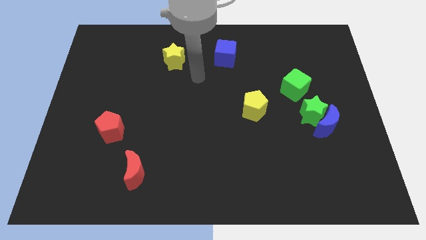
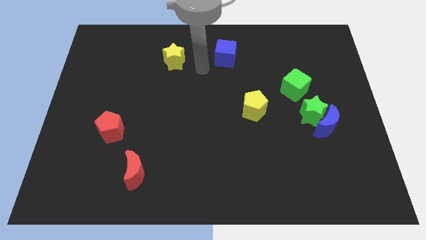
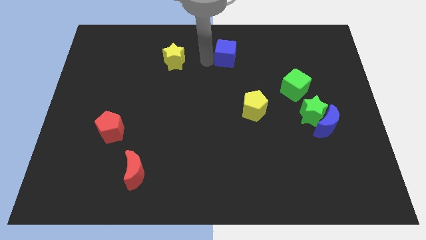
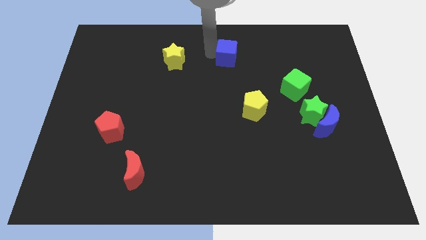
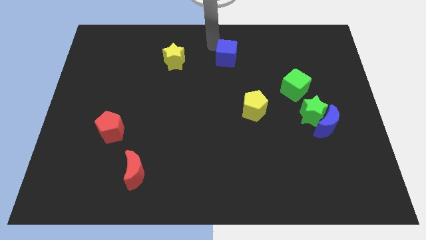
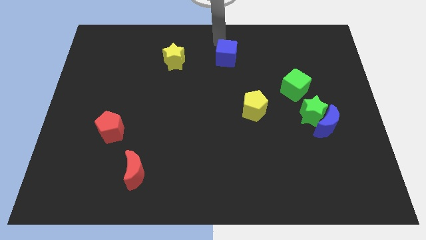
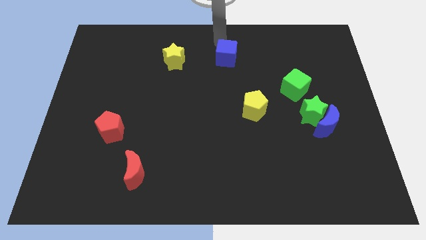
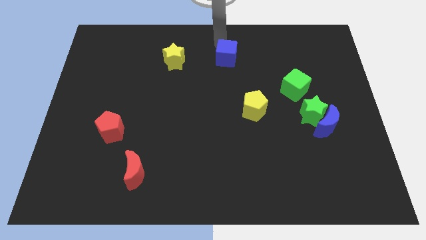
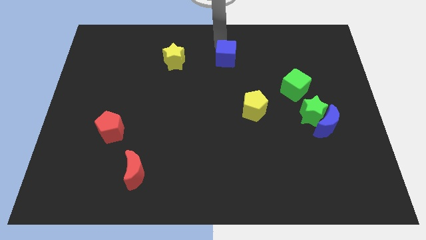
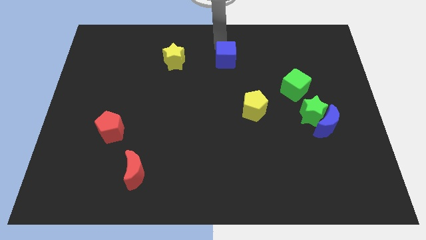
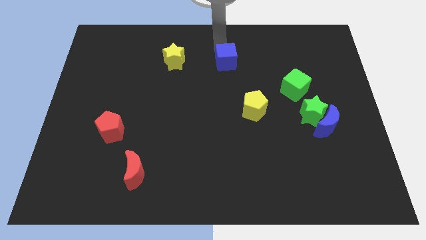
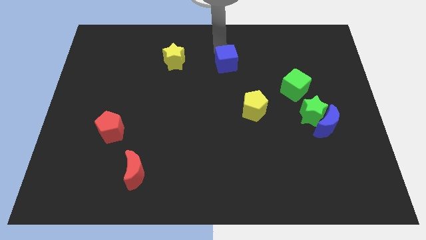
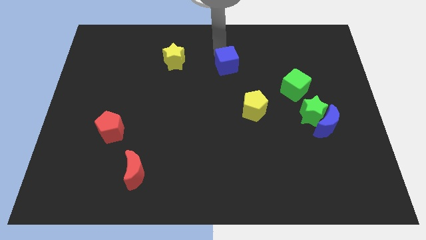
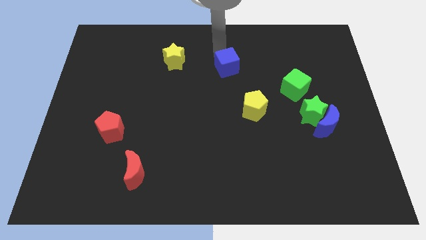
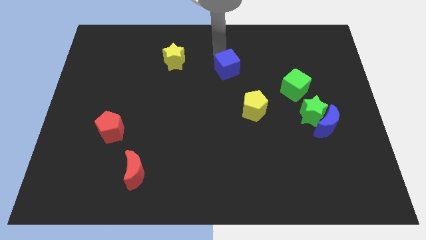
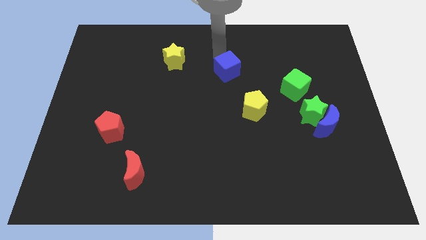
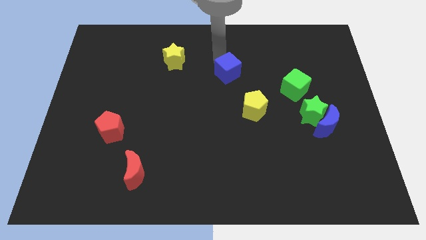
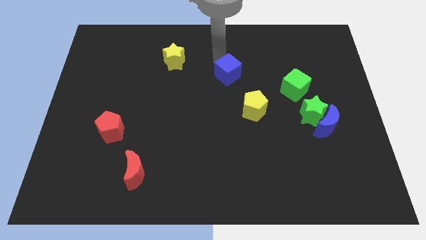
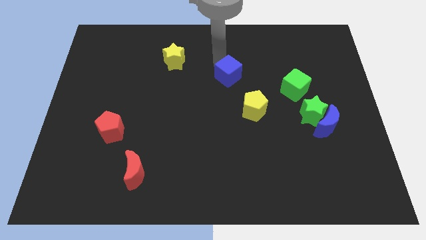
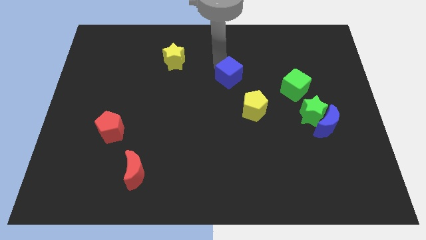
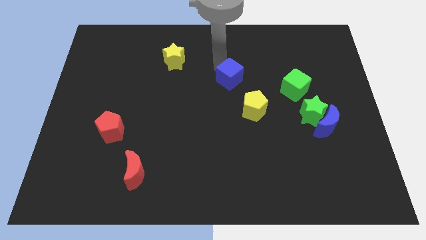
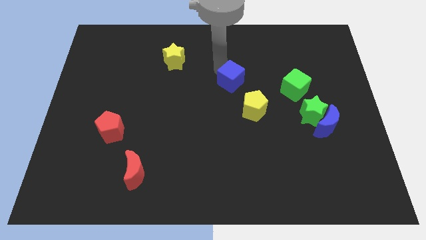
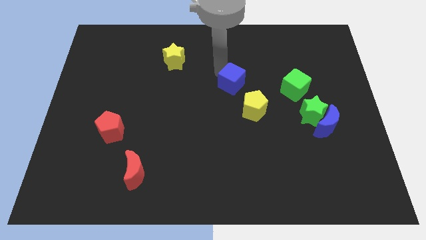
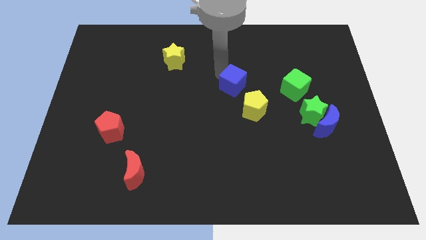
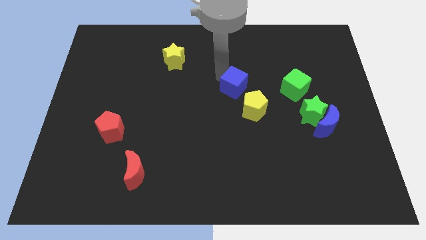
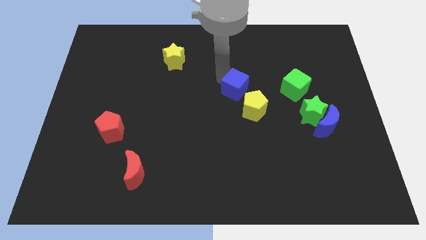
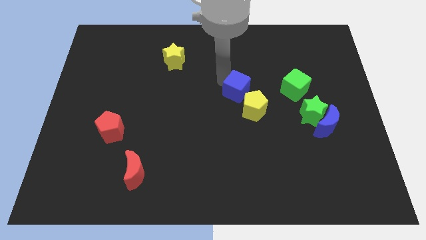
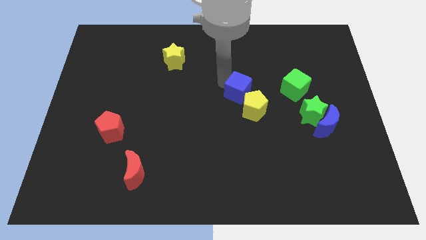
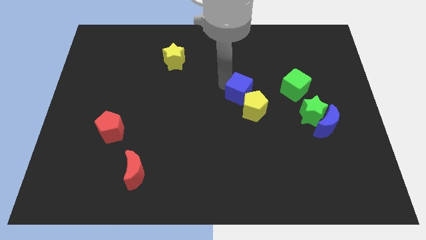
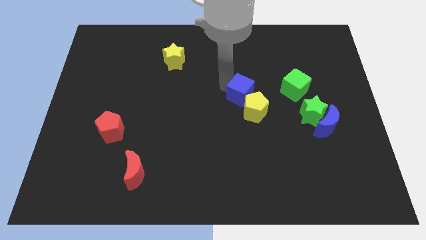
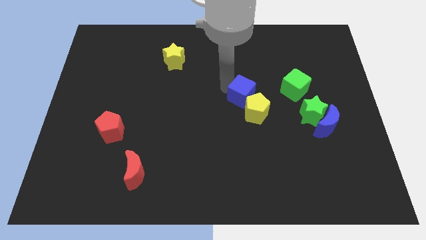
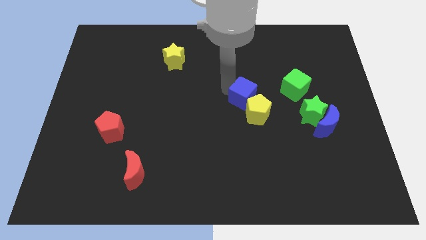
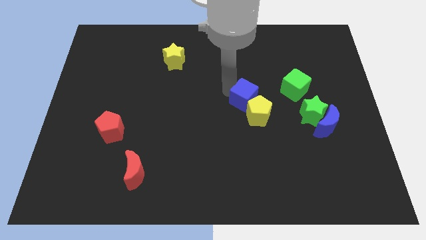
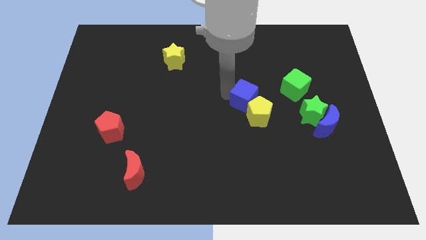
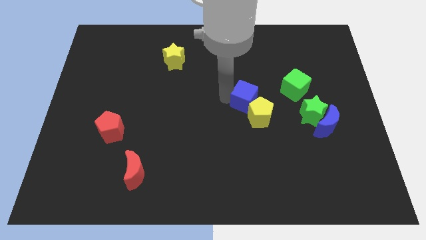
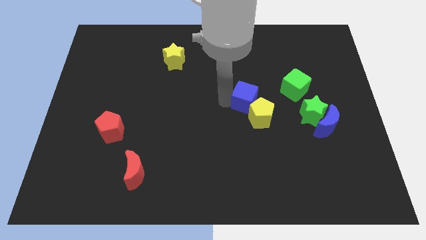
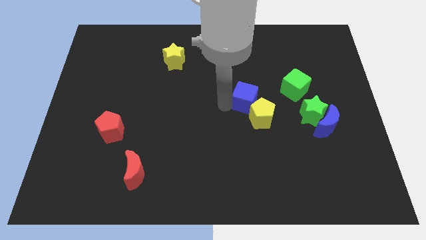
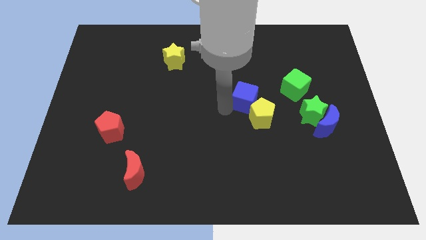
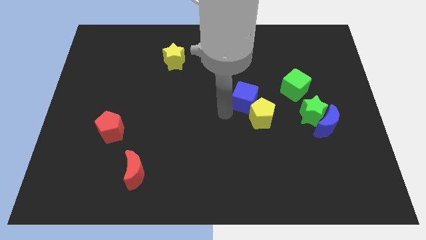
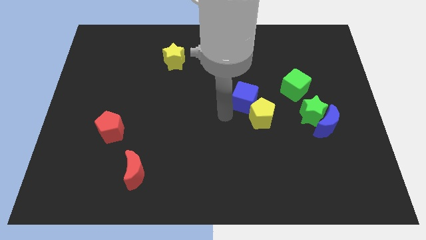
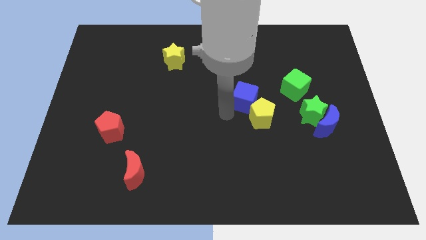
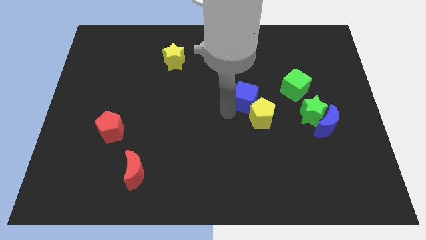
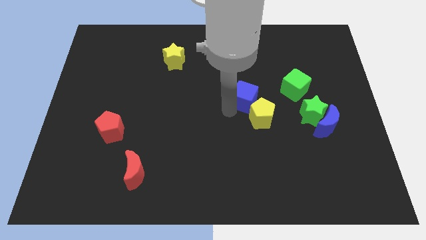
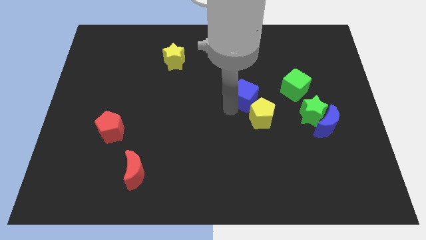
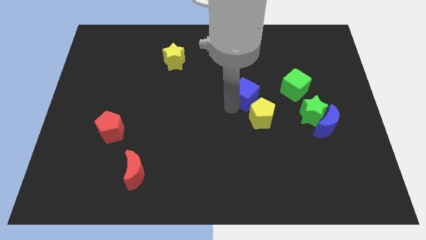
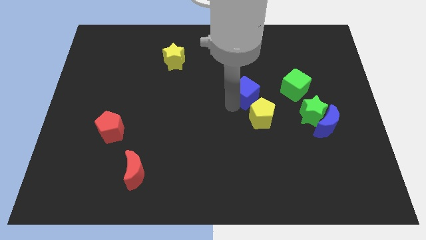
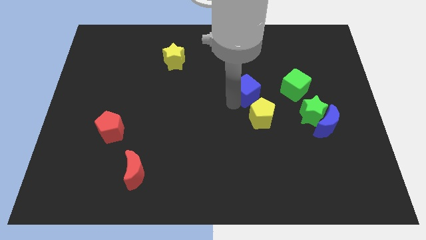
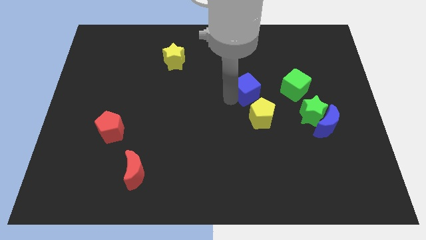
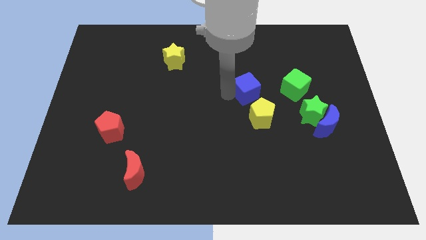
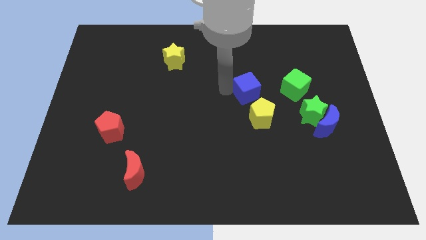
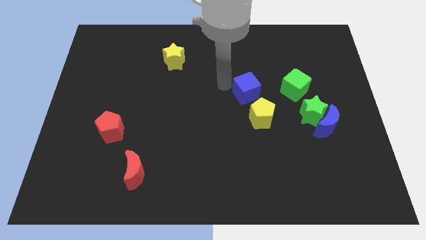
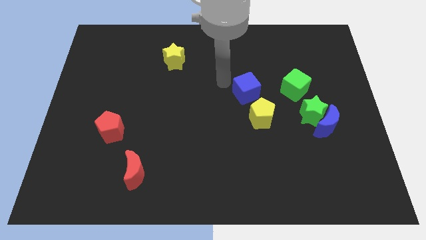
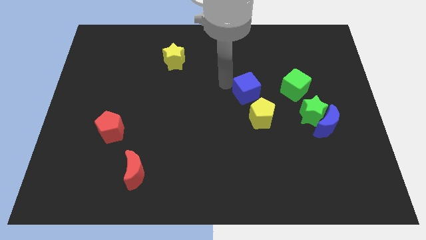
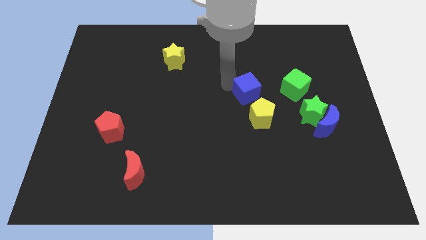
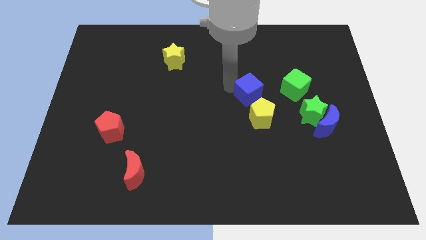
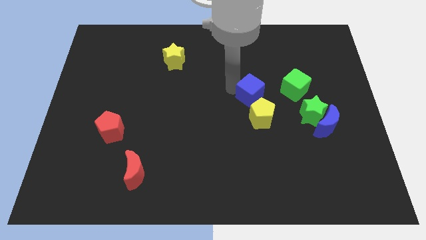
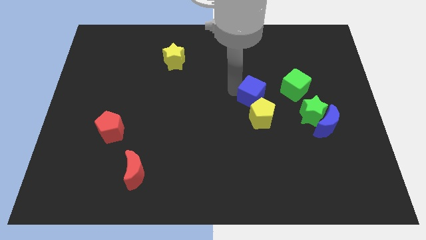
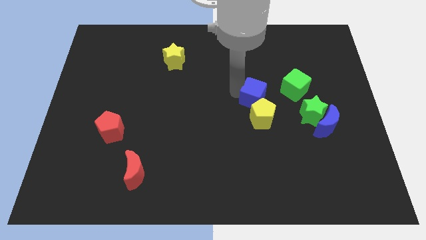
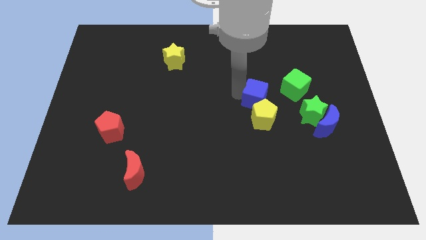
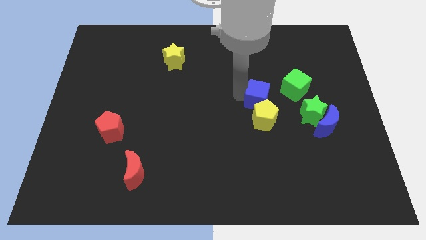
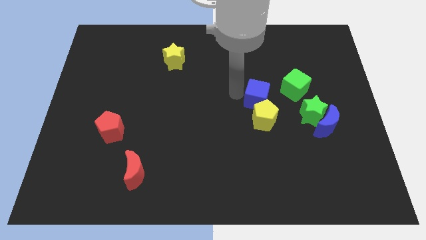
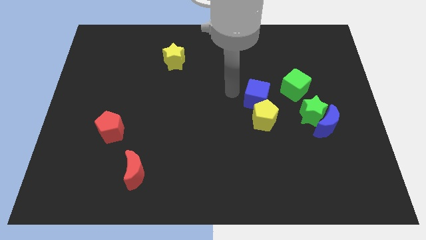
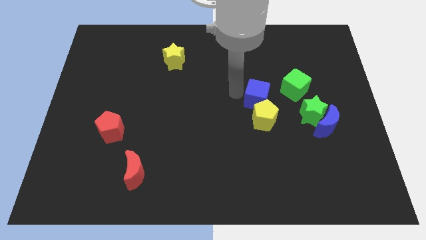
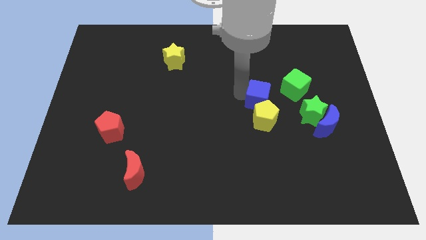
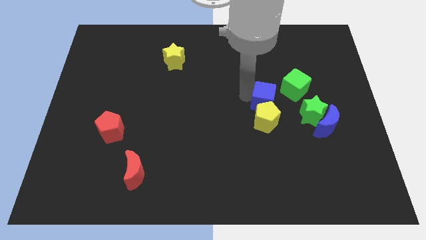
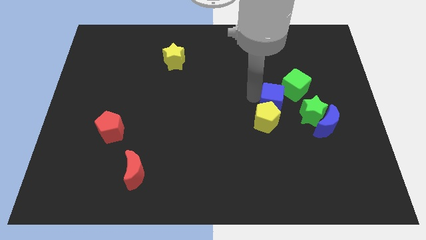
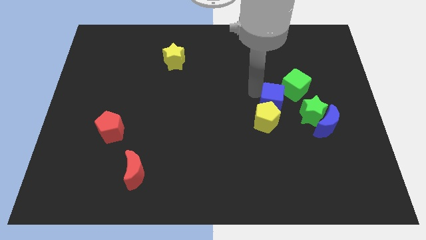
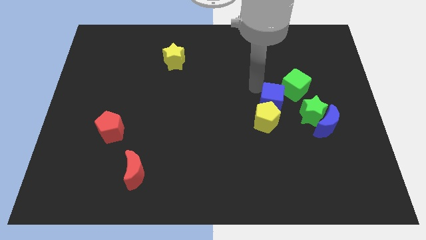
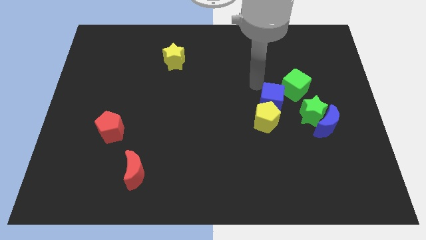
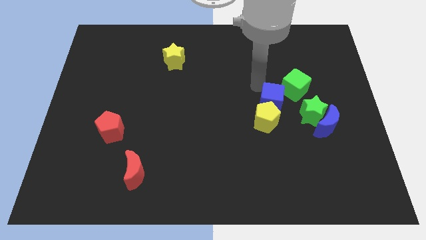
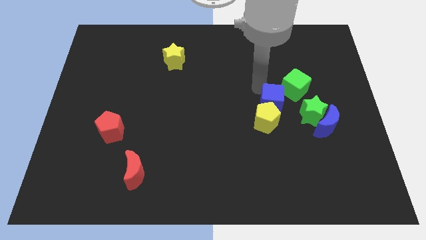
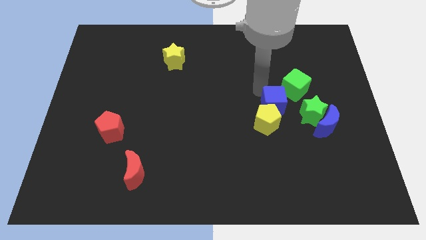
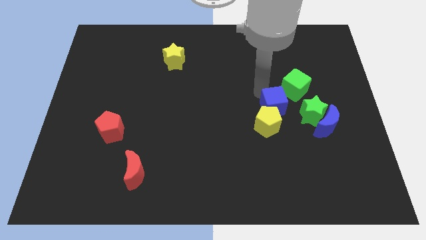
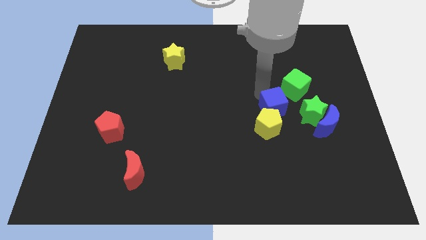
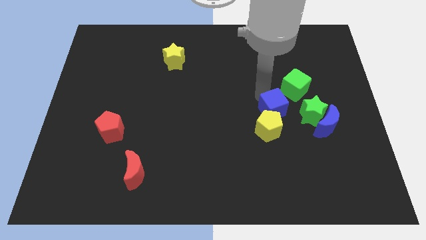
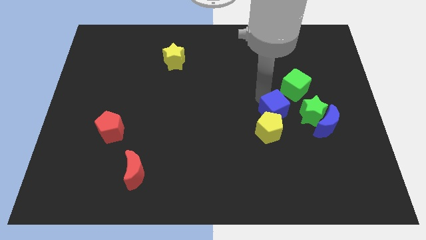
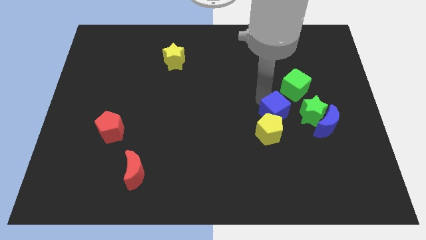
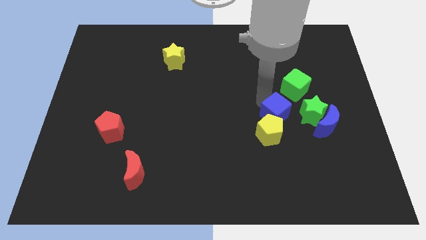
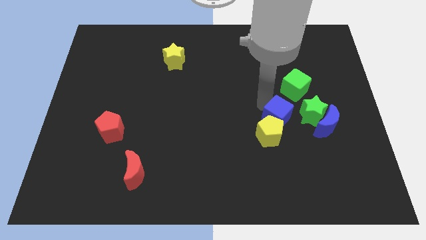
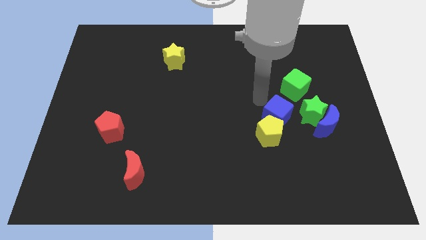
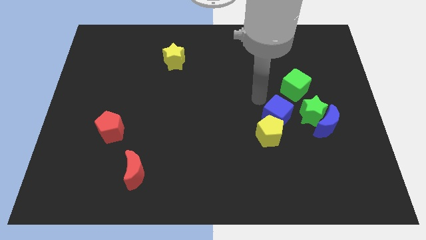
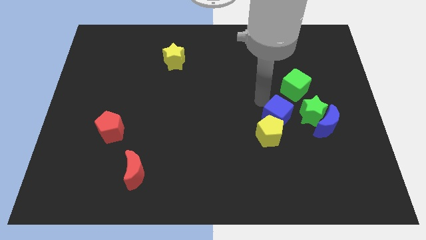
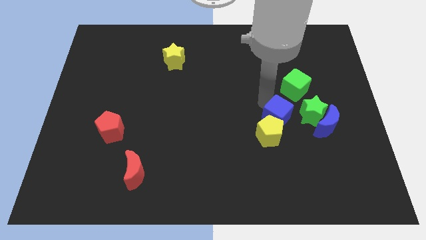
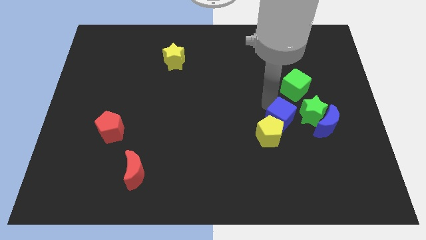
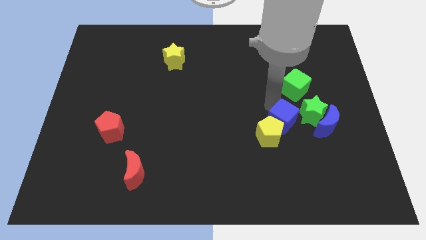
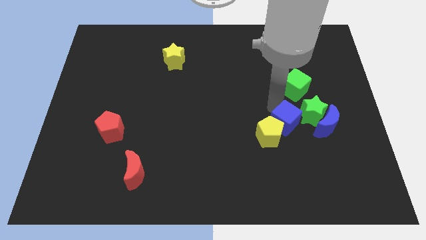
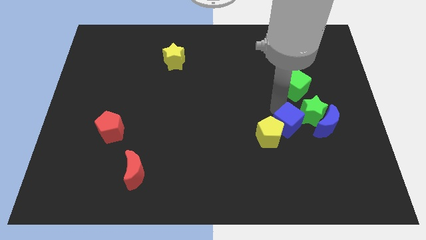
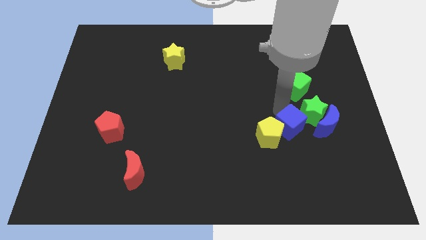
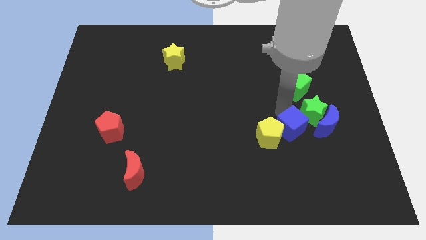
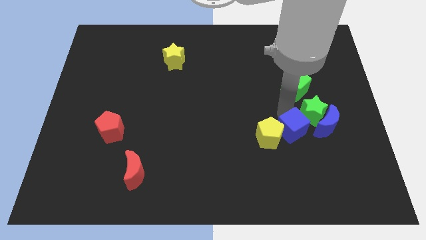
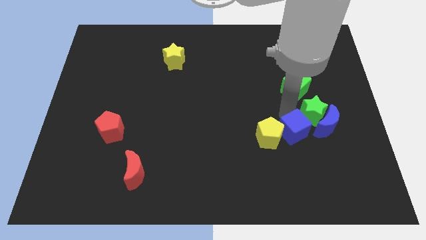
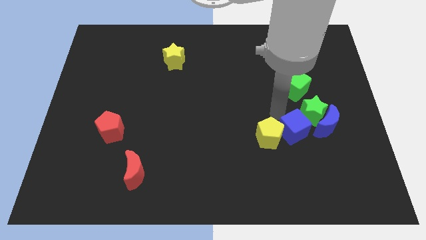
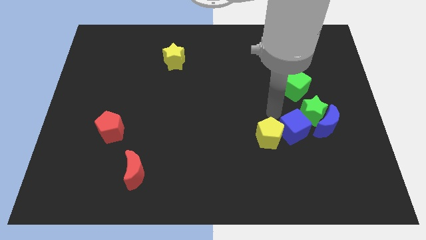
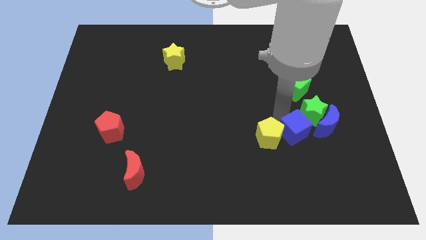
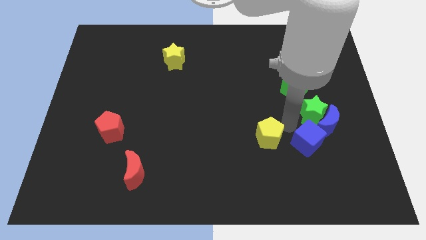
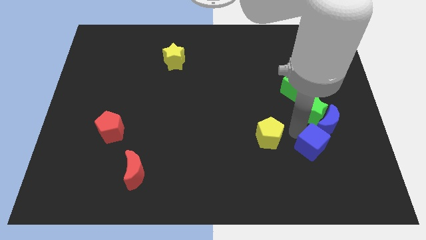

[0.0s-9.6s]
push the blue cube below the blue moon
